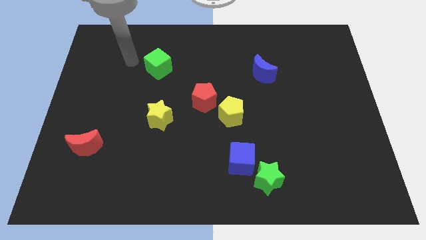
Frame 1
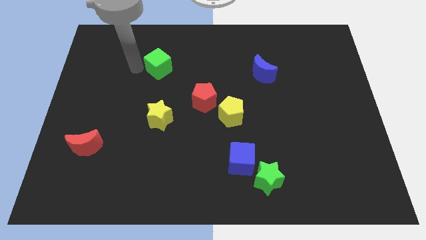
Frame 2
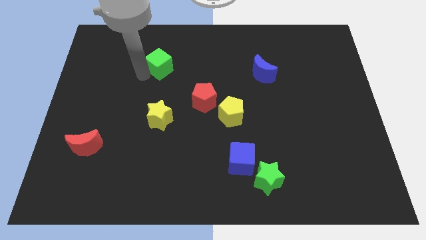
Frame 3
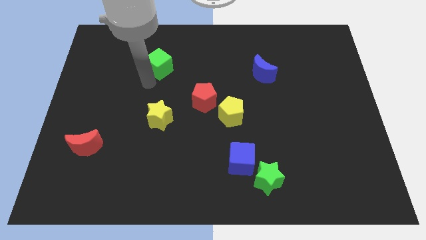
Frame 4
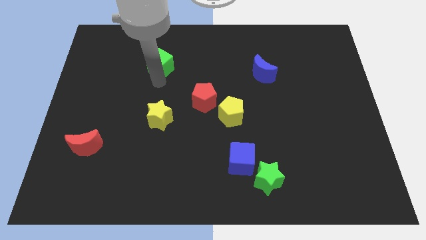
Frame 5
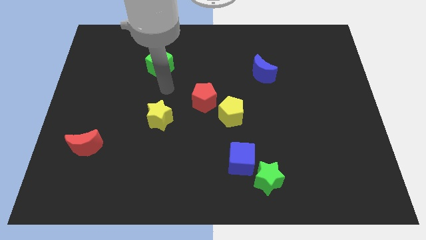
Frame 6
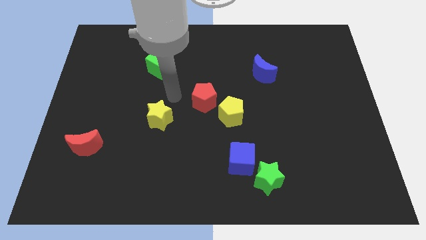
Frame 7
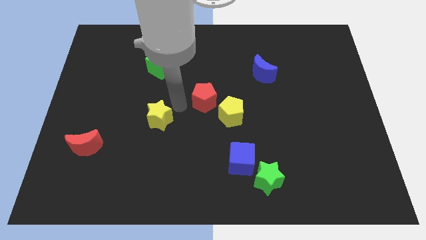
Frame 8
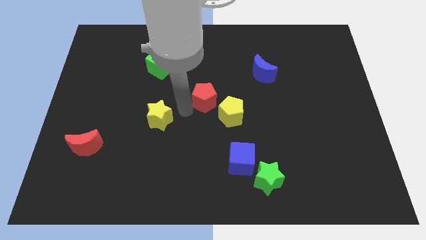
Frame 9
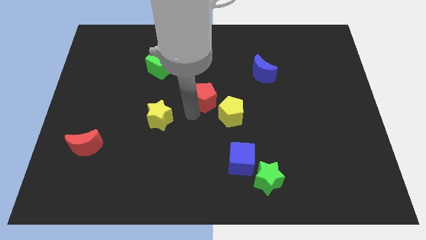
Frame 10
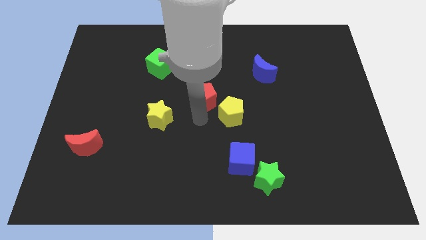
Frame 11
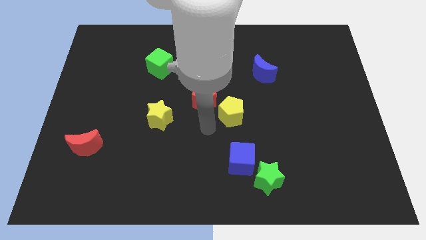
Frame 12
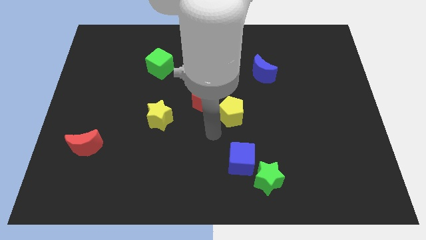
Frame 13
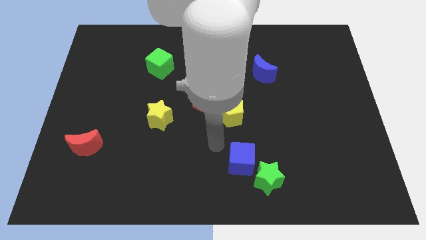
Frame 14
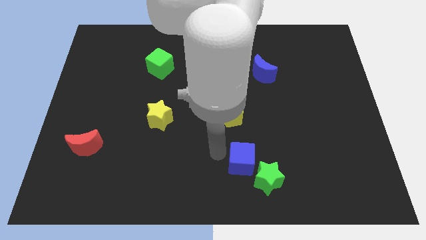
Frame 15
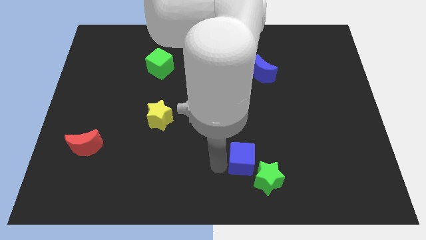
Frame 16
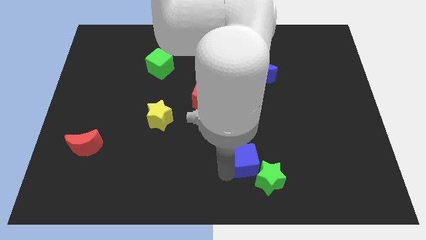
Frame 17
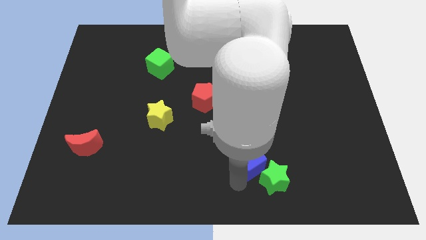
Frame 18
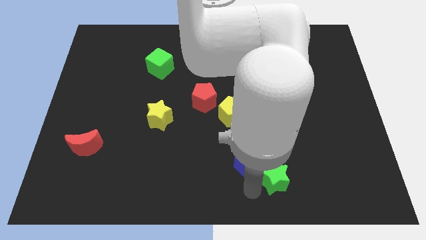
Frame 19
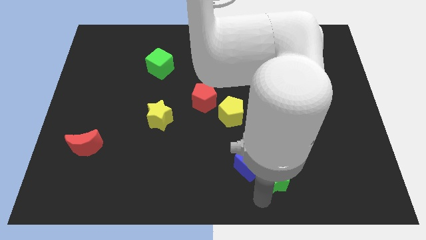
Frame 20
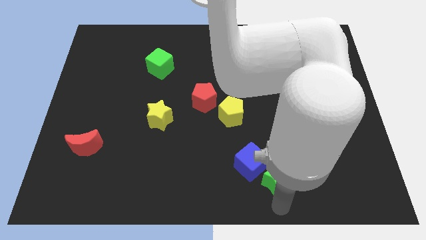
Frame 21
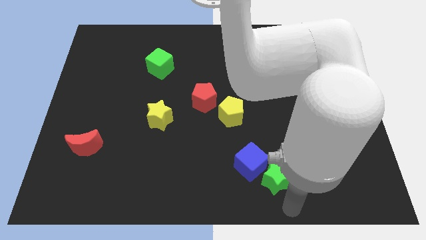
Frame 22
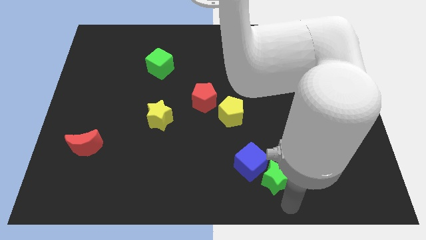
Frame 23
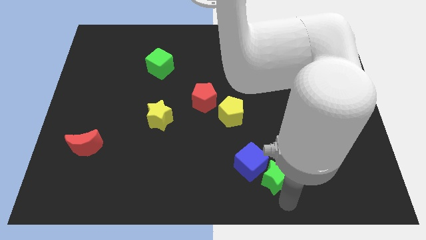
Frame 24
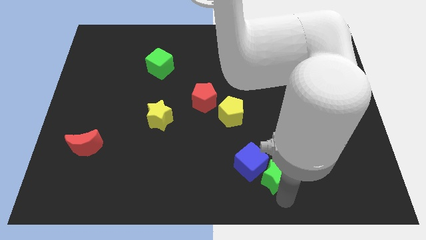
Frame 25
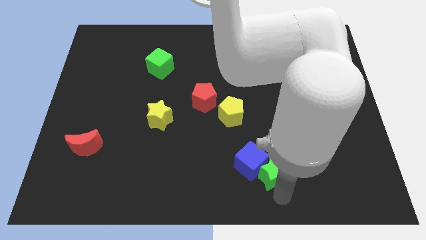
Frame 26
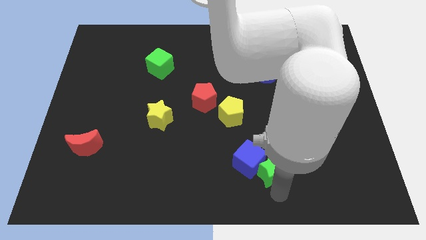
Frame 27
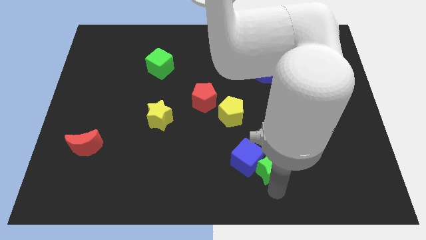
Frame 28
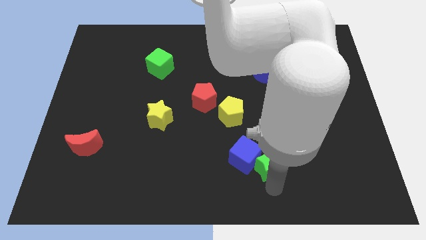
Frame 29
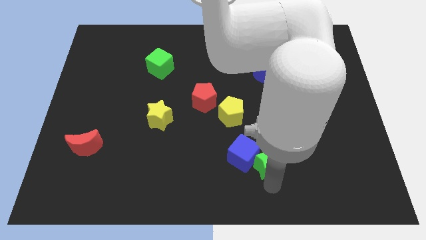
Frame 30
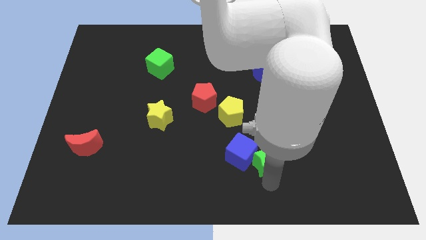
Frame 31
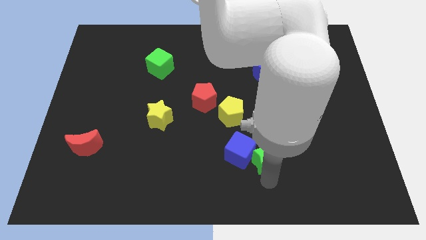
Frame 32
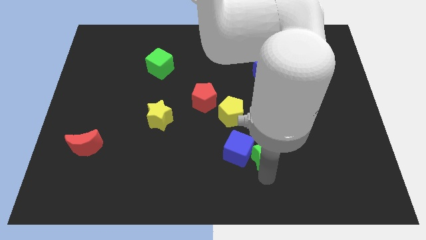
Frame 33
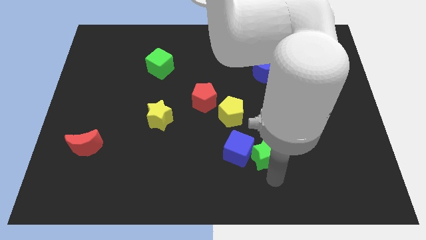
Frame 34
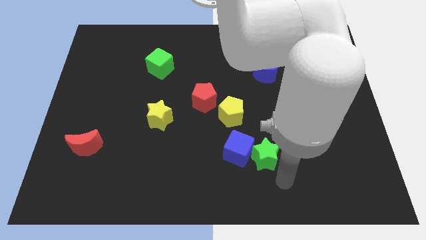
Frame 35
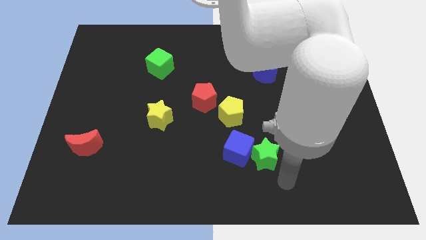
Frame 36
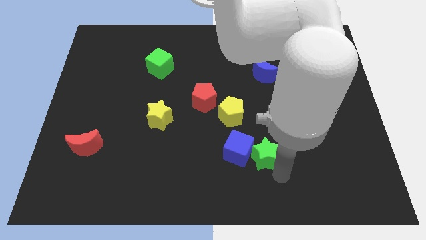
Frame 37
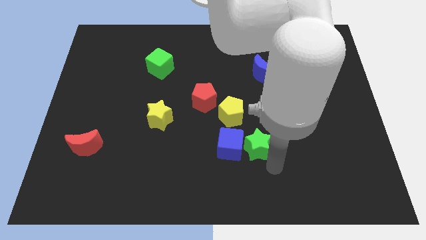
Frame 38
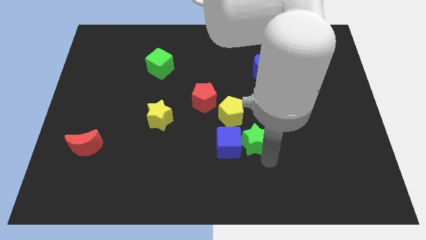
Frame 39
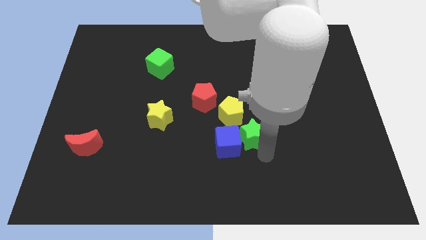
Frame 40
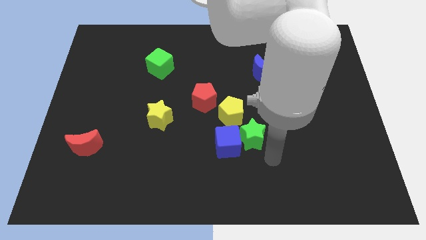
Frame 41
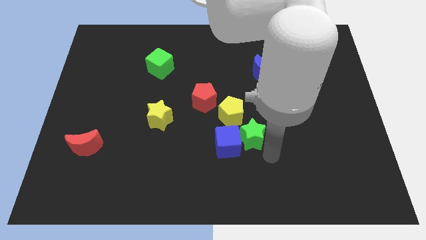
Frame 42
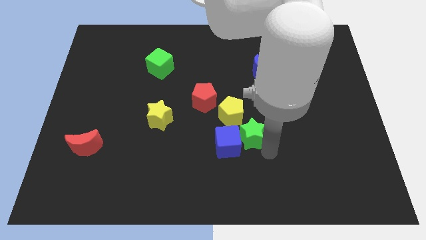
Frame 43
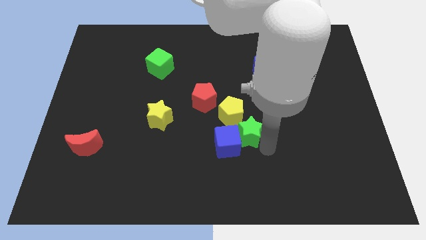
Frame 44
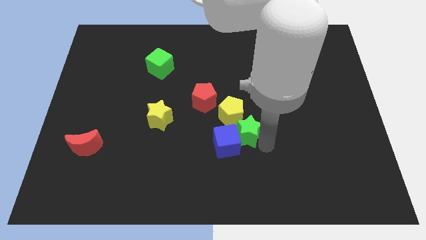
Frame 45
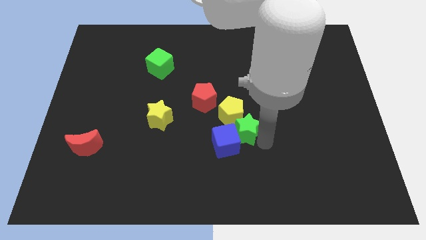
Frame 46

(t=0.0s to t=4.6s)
slide the green star towards the yellow pentagon

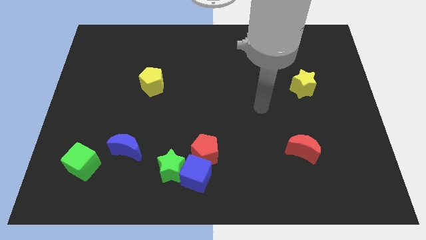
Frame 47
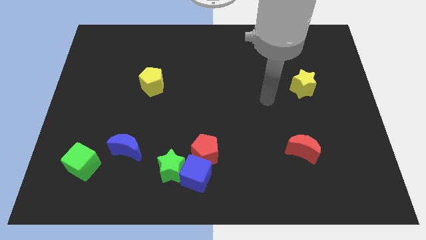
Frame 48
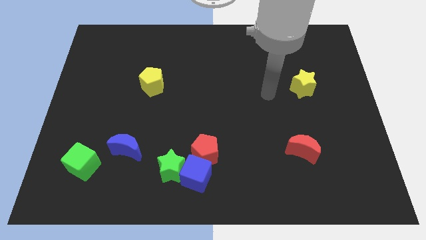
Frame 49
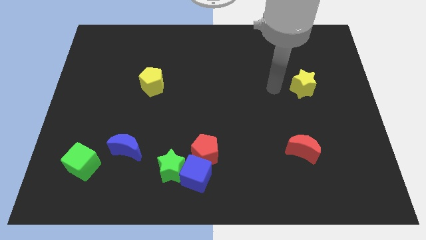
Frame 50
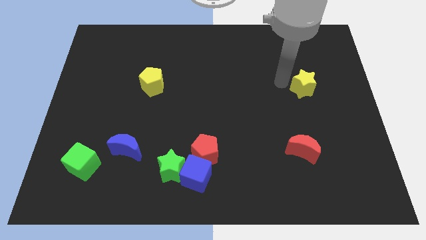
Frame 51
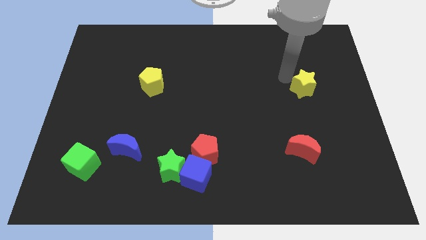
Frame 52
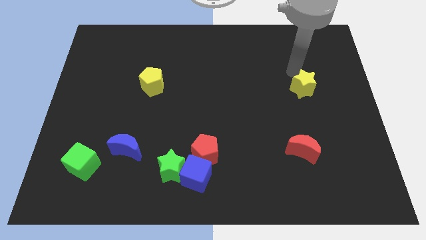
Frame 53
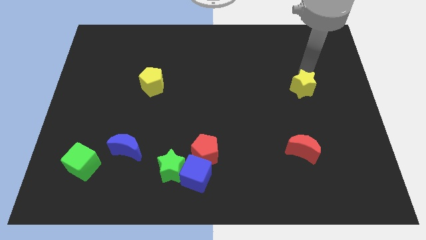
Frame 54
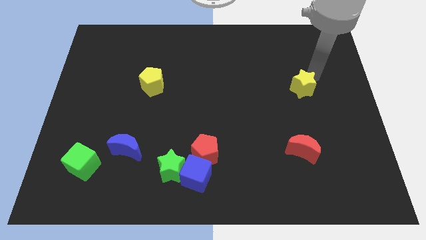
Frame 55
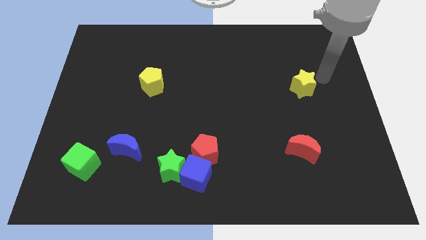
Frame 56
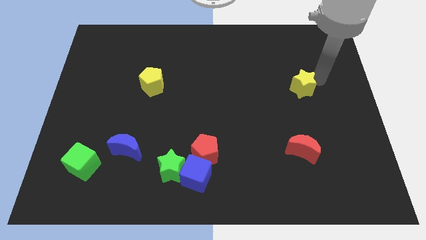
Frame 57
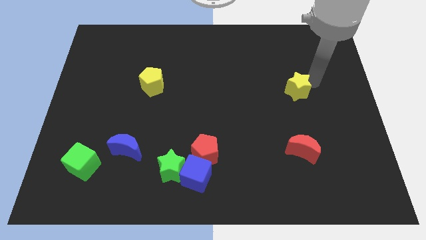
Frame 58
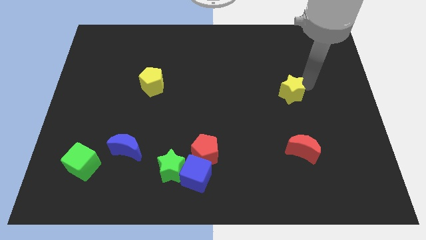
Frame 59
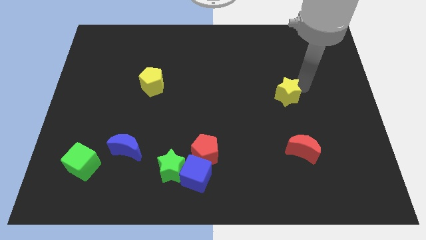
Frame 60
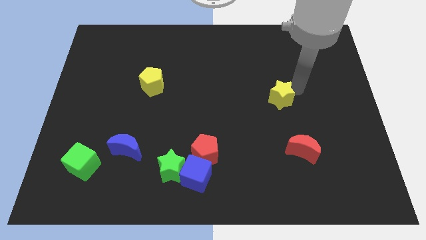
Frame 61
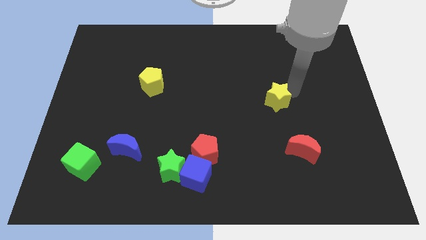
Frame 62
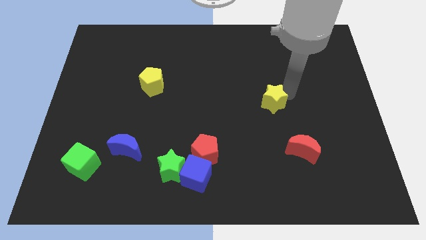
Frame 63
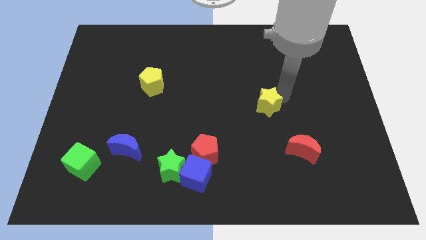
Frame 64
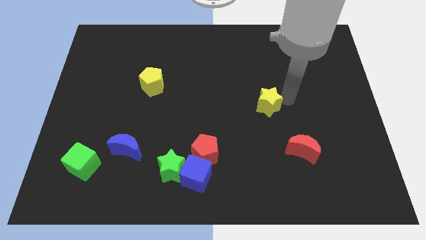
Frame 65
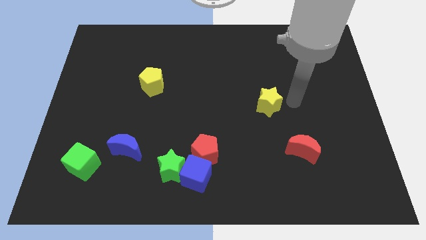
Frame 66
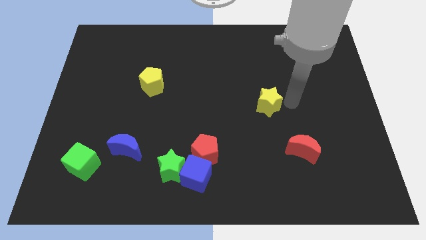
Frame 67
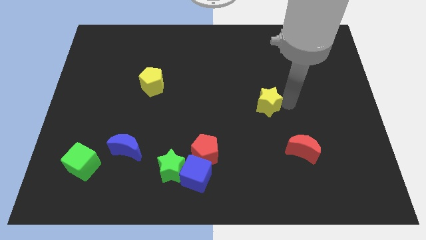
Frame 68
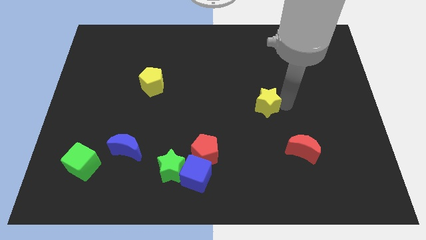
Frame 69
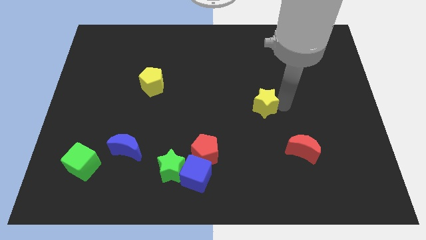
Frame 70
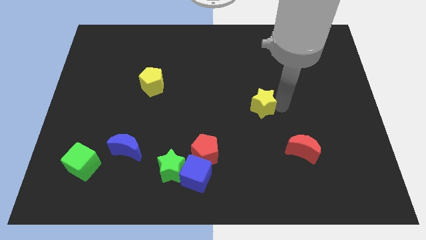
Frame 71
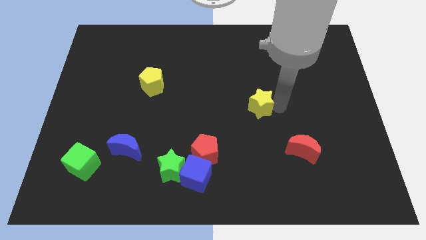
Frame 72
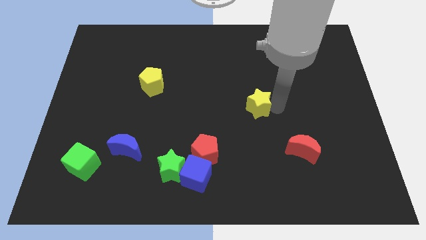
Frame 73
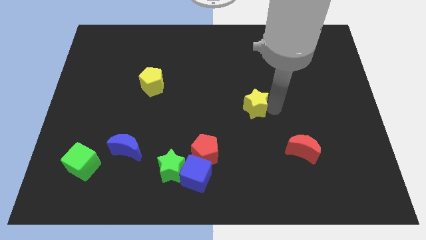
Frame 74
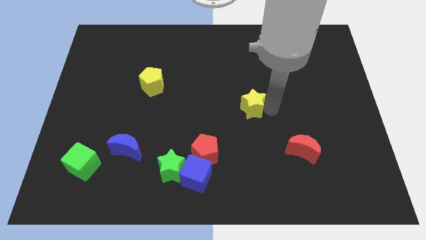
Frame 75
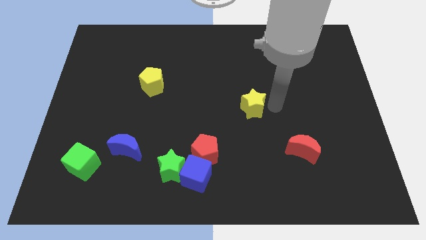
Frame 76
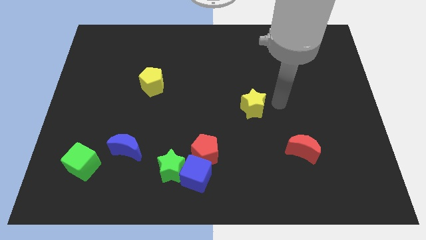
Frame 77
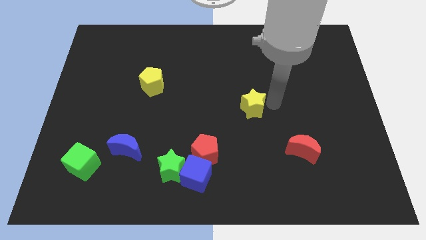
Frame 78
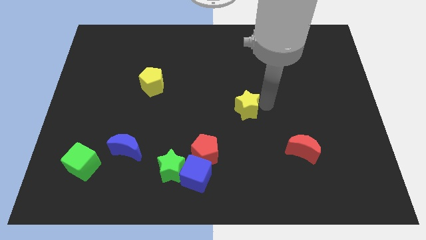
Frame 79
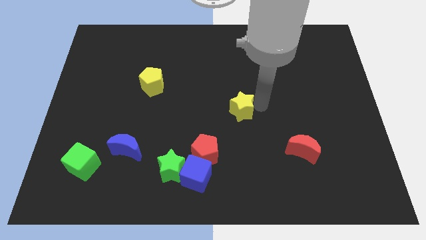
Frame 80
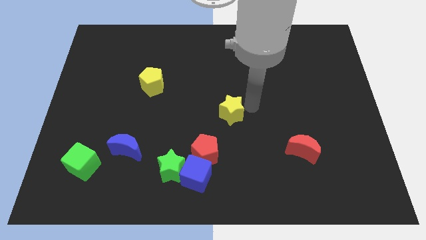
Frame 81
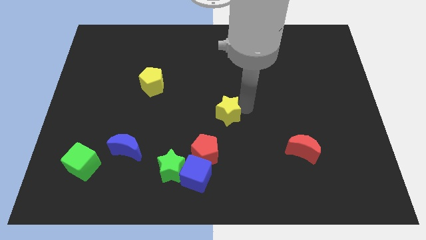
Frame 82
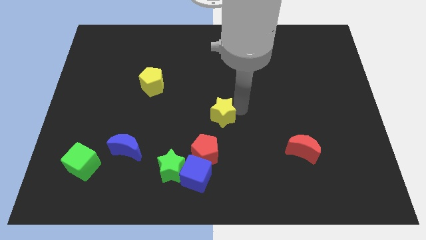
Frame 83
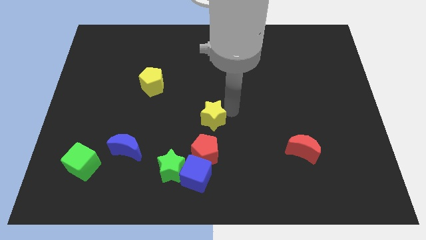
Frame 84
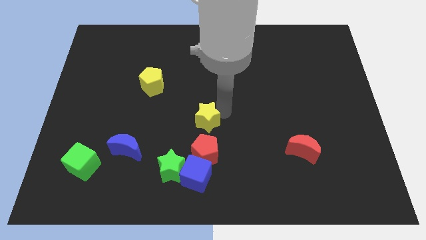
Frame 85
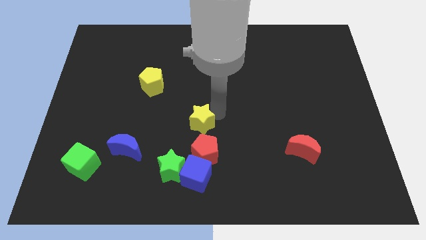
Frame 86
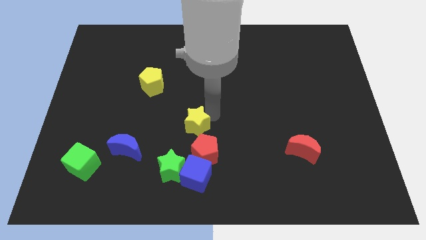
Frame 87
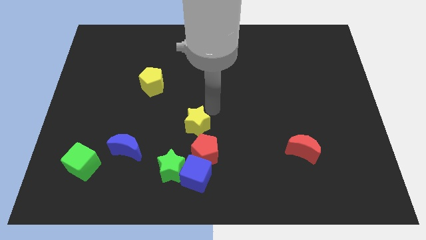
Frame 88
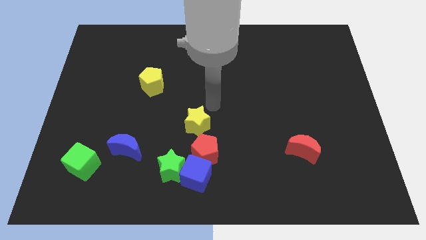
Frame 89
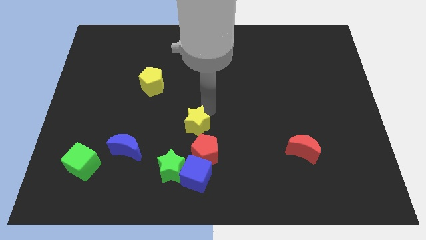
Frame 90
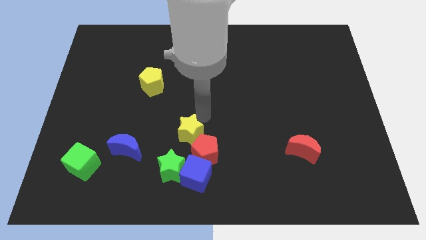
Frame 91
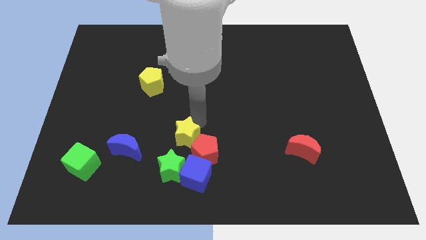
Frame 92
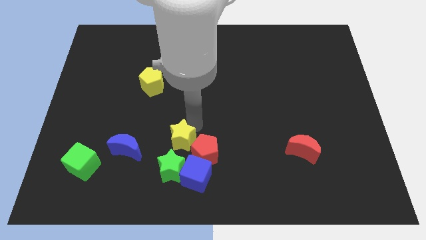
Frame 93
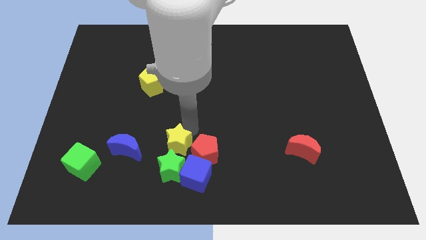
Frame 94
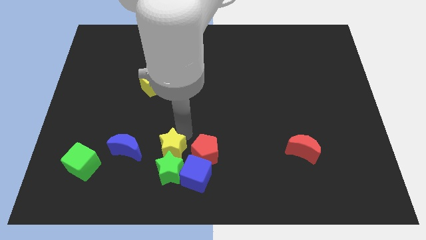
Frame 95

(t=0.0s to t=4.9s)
push the yellow star next to the green star
